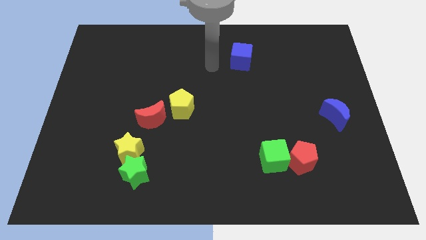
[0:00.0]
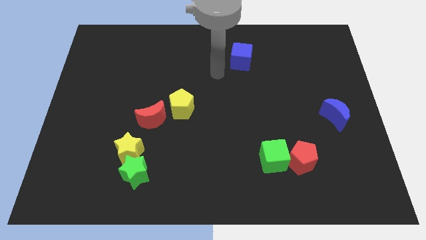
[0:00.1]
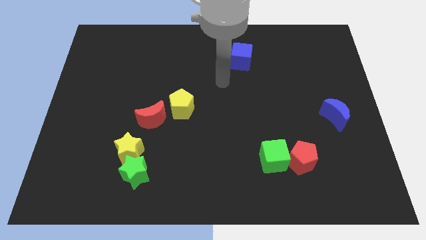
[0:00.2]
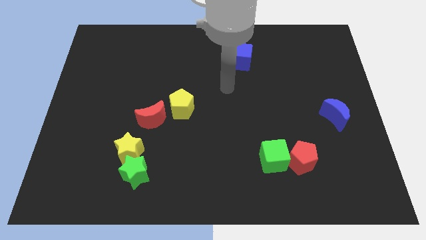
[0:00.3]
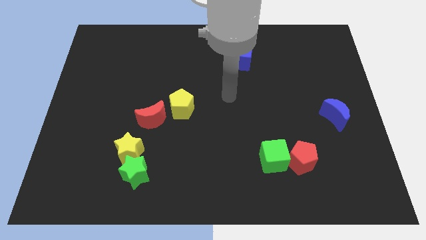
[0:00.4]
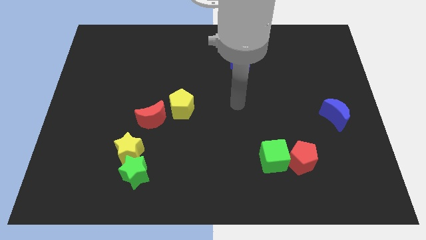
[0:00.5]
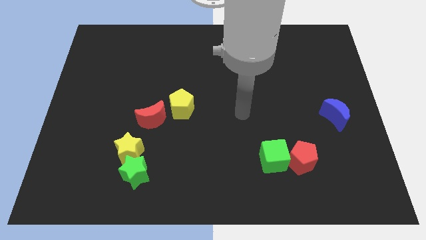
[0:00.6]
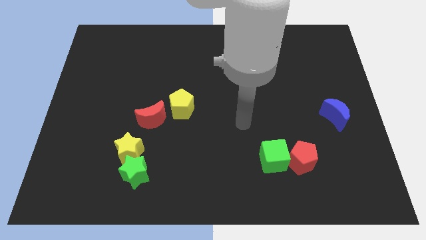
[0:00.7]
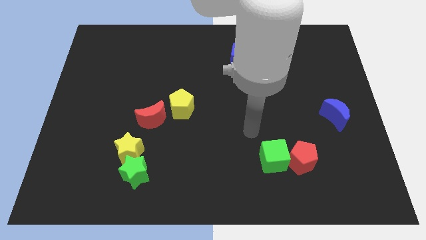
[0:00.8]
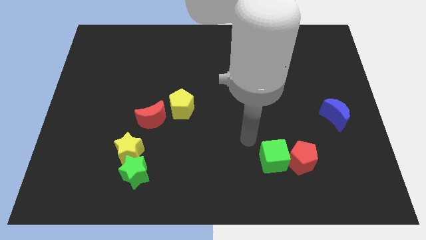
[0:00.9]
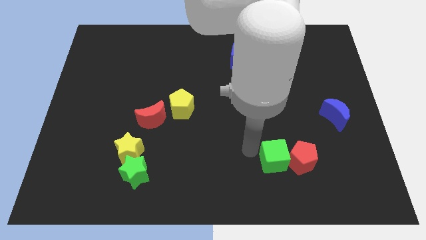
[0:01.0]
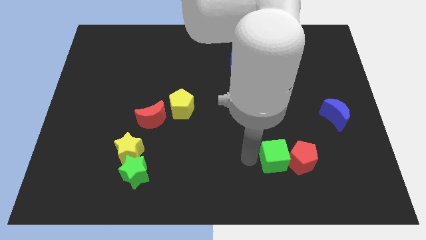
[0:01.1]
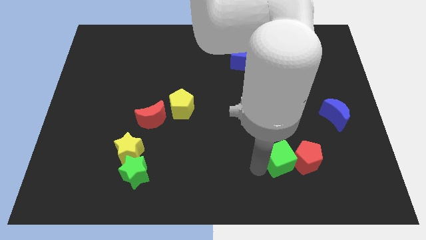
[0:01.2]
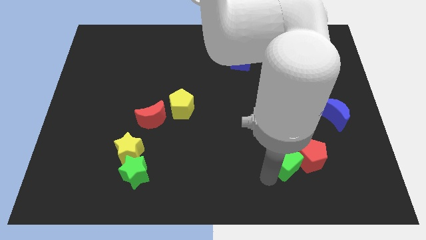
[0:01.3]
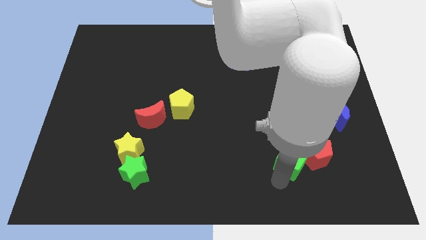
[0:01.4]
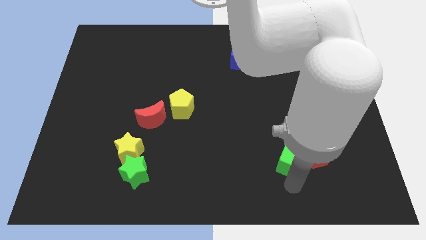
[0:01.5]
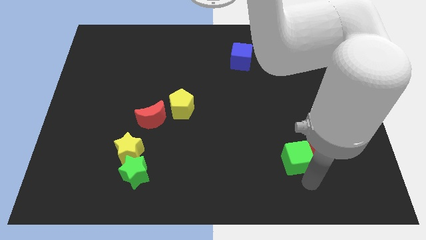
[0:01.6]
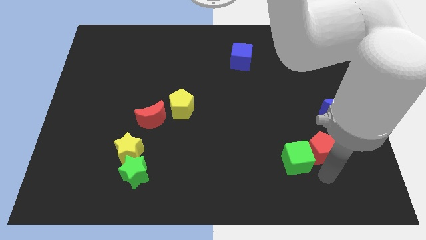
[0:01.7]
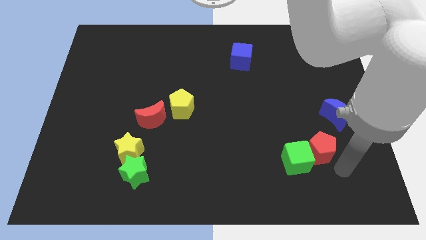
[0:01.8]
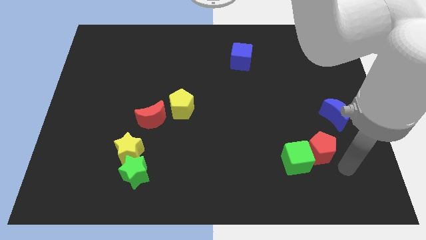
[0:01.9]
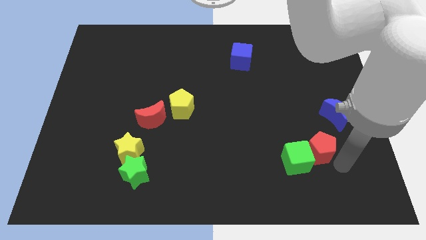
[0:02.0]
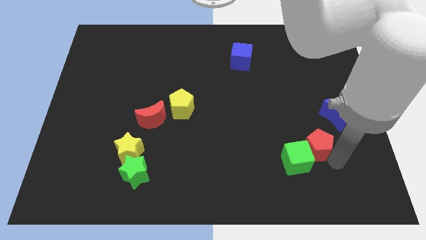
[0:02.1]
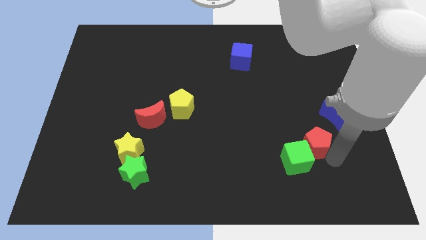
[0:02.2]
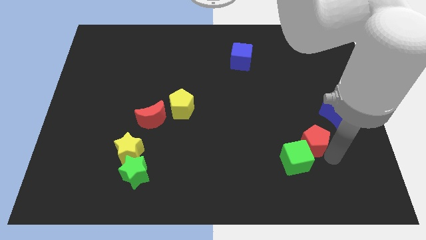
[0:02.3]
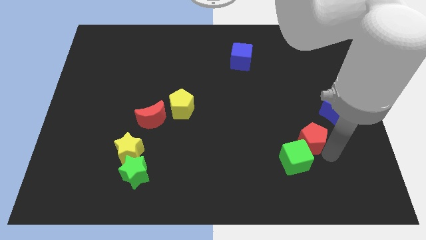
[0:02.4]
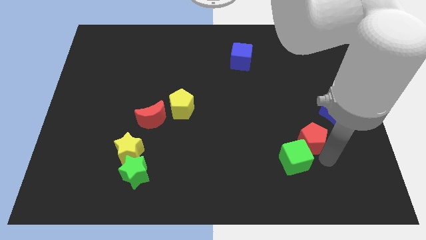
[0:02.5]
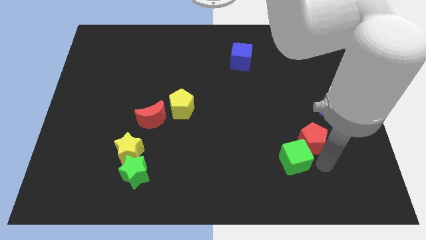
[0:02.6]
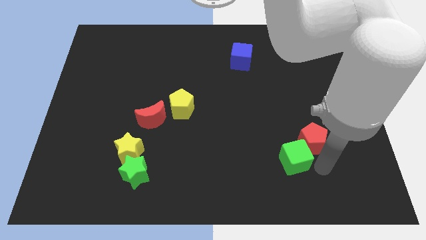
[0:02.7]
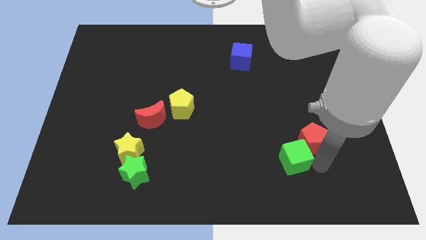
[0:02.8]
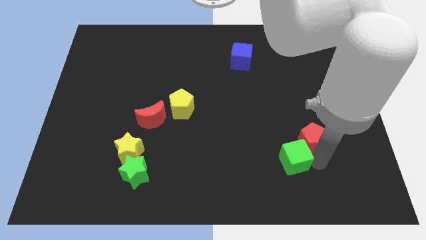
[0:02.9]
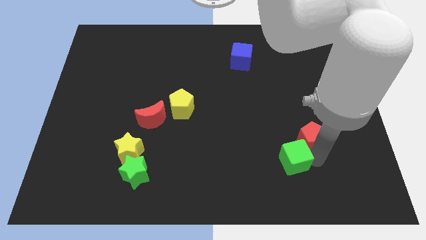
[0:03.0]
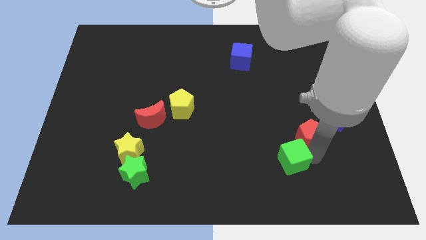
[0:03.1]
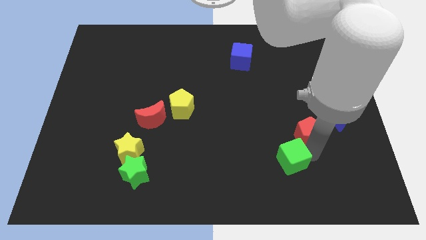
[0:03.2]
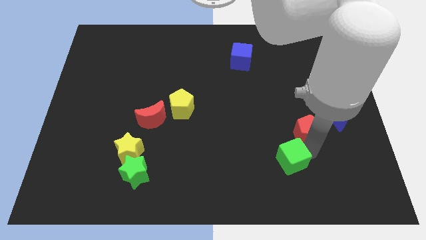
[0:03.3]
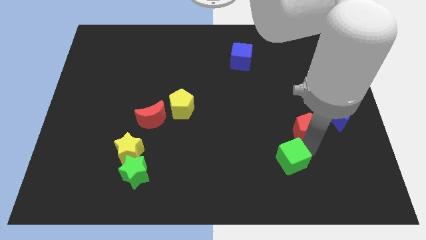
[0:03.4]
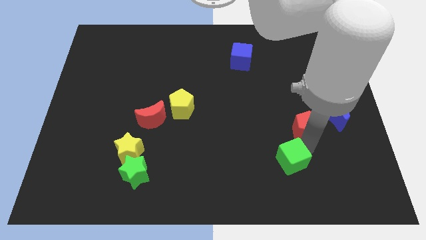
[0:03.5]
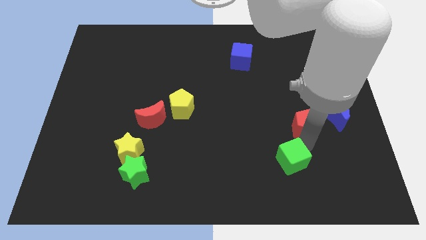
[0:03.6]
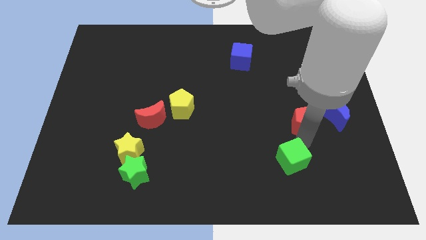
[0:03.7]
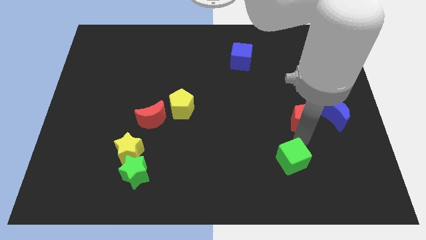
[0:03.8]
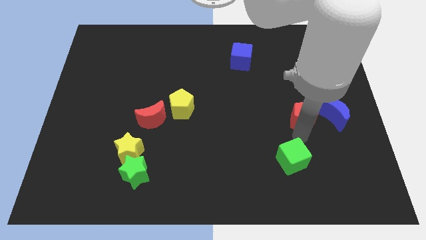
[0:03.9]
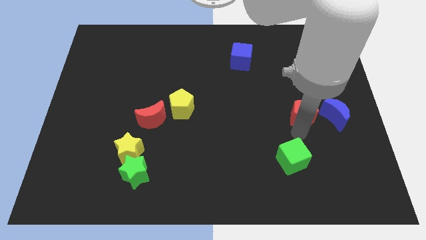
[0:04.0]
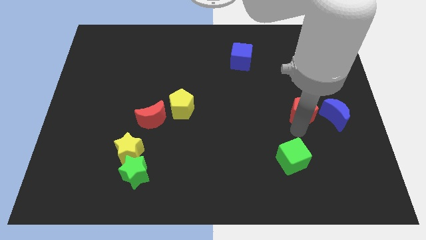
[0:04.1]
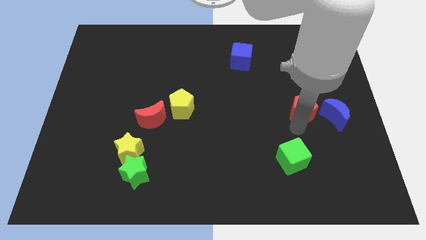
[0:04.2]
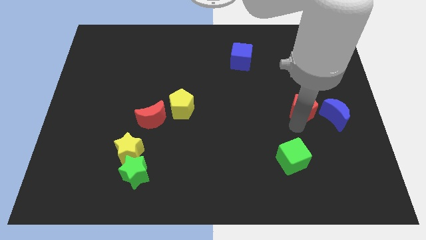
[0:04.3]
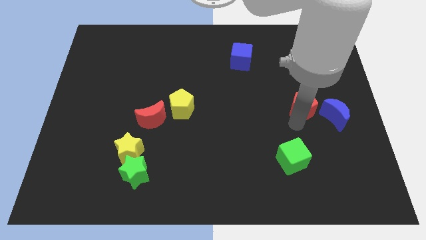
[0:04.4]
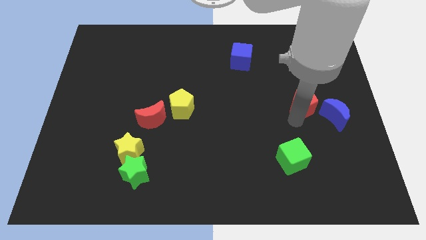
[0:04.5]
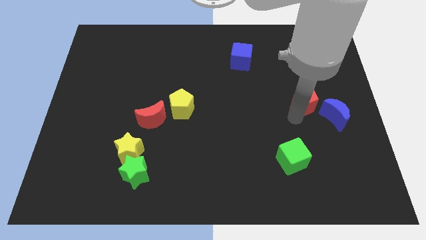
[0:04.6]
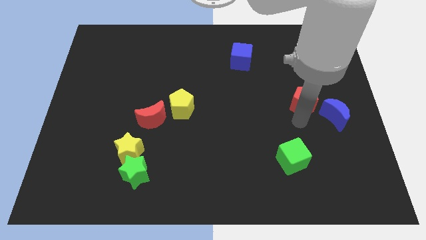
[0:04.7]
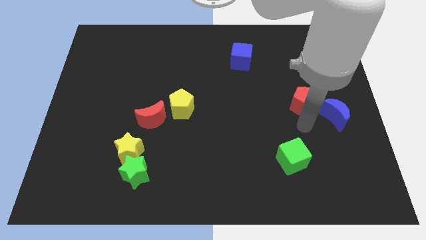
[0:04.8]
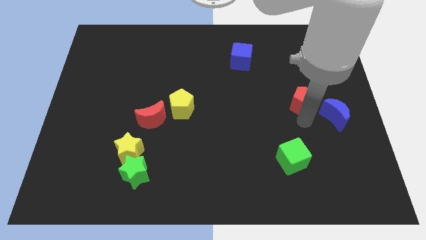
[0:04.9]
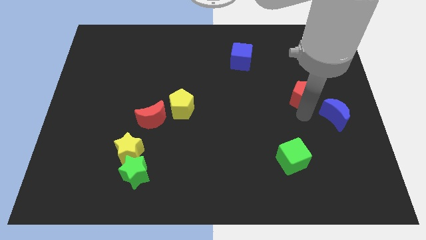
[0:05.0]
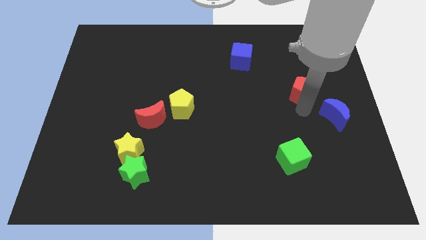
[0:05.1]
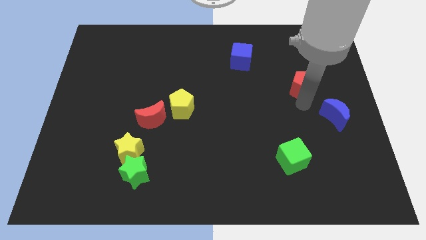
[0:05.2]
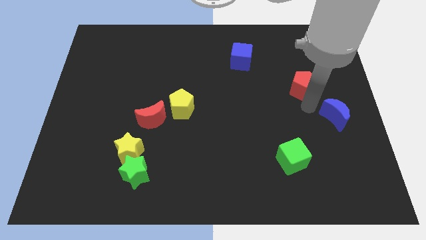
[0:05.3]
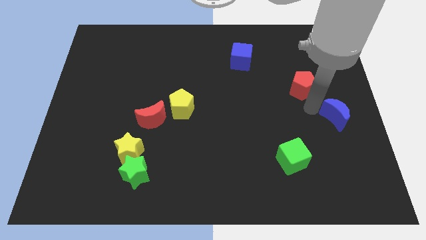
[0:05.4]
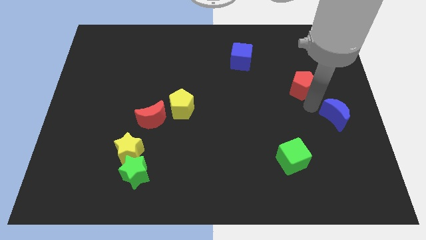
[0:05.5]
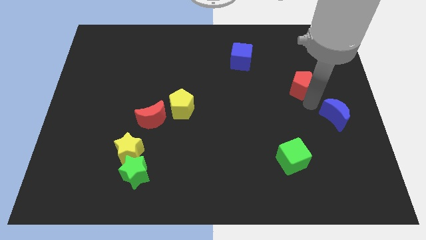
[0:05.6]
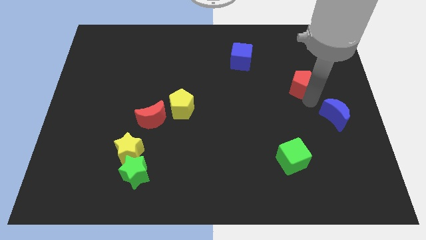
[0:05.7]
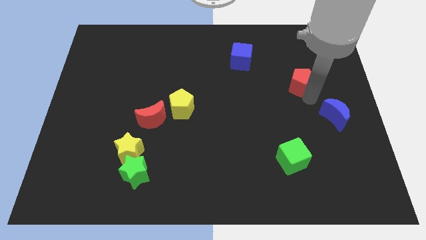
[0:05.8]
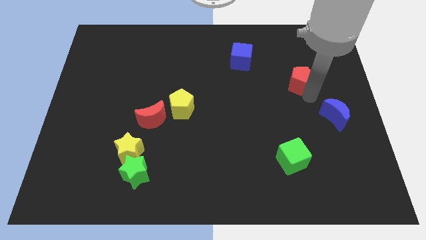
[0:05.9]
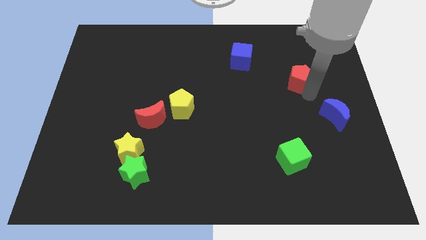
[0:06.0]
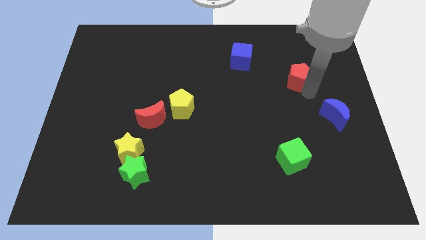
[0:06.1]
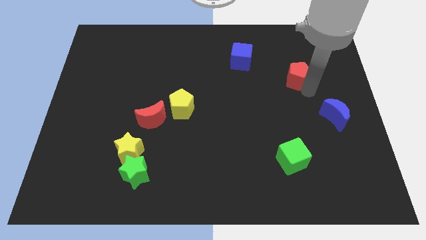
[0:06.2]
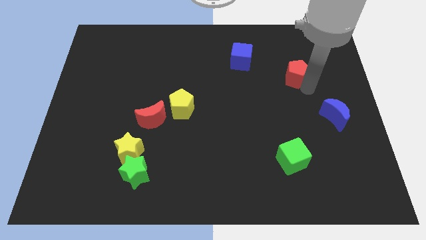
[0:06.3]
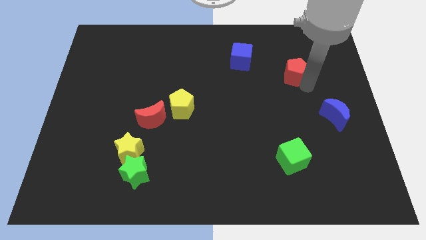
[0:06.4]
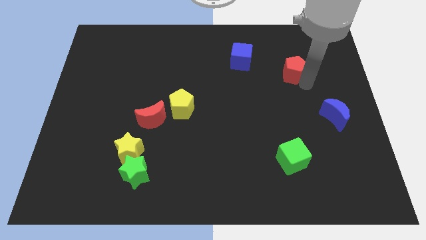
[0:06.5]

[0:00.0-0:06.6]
slide the red pentagon to the right side of the blue cube
